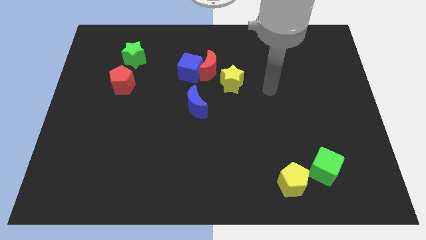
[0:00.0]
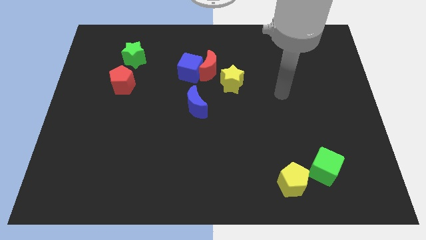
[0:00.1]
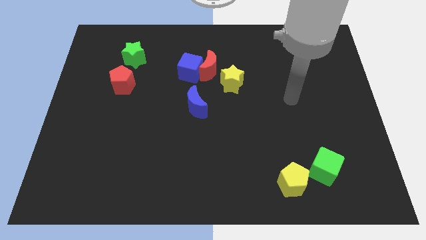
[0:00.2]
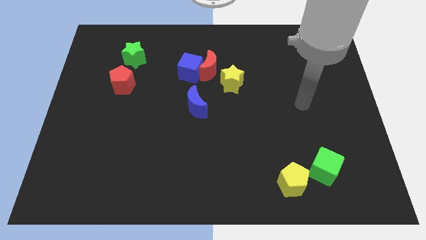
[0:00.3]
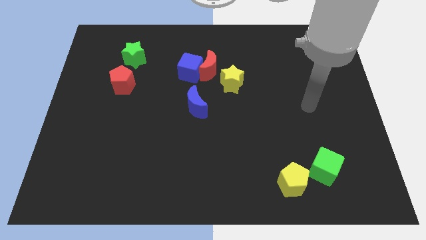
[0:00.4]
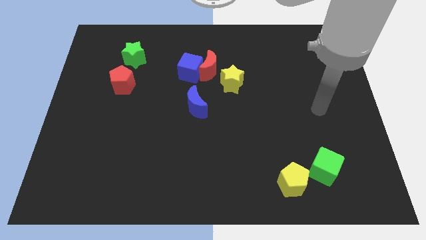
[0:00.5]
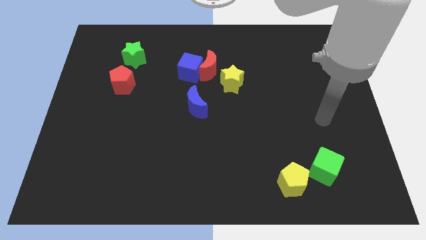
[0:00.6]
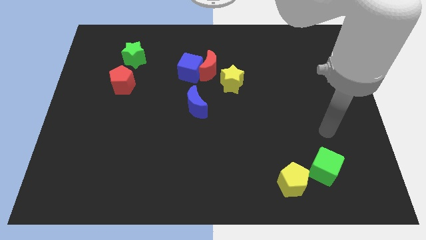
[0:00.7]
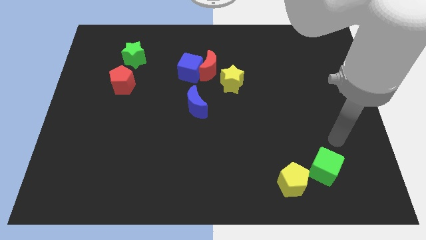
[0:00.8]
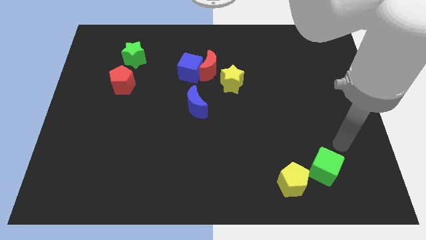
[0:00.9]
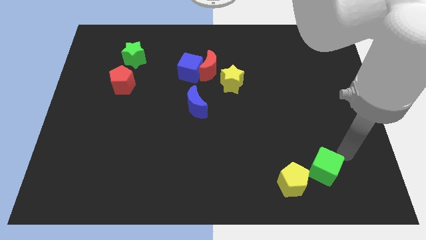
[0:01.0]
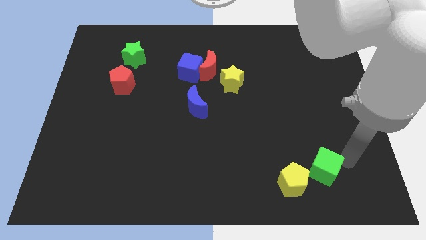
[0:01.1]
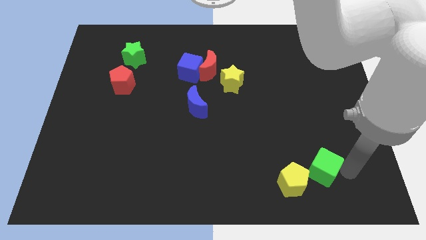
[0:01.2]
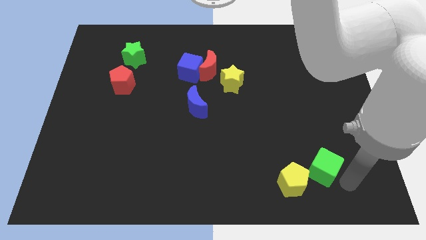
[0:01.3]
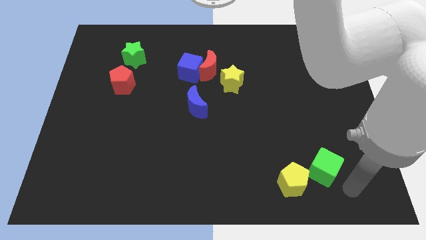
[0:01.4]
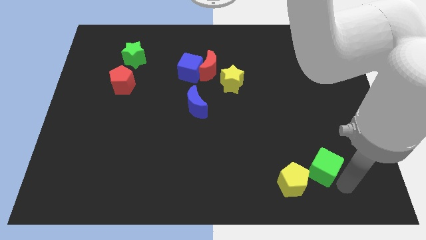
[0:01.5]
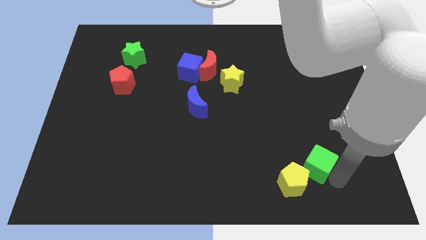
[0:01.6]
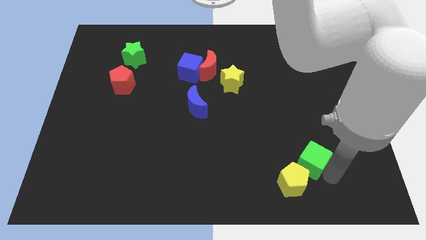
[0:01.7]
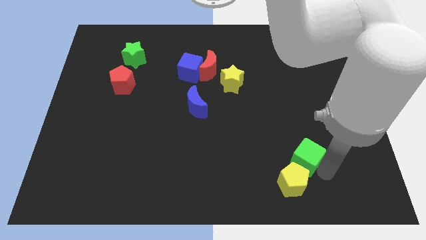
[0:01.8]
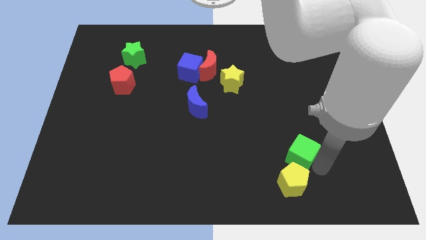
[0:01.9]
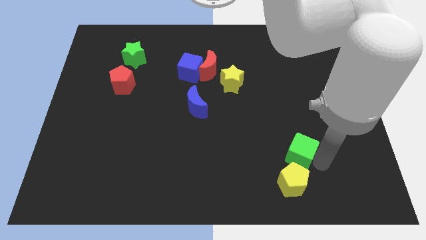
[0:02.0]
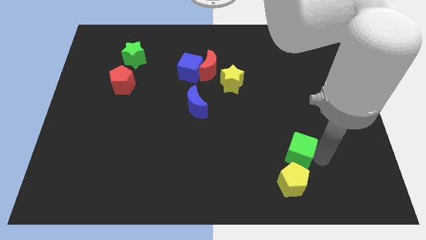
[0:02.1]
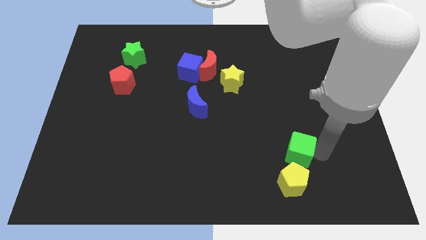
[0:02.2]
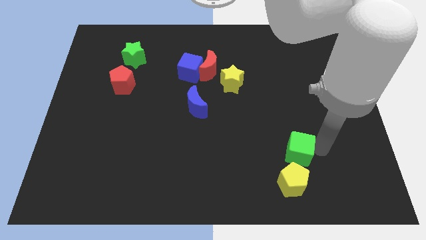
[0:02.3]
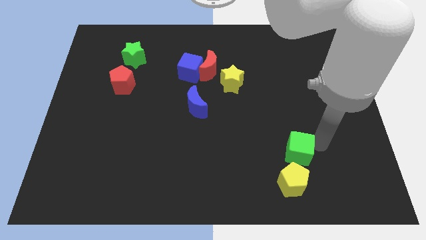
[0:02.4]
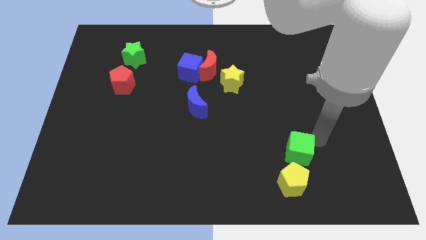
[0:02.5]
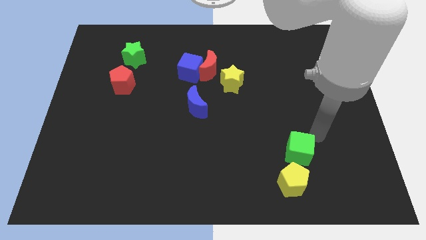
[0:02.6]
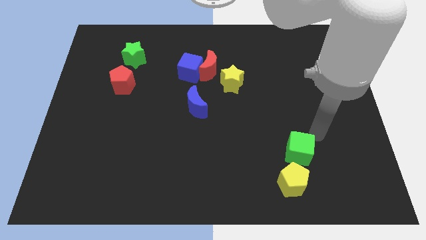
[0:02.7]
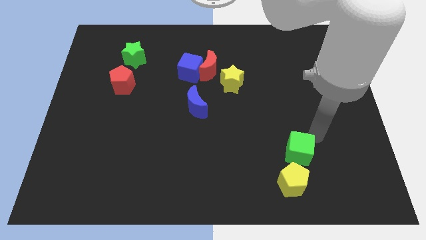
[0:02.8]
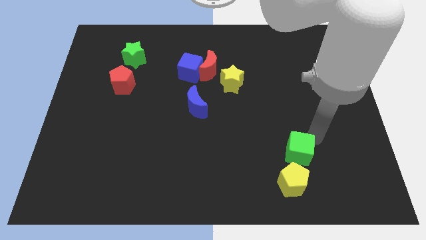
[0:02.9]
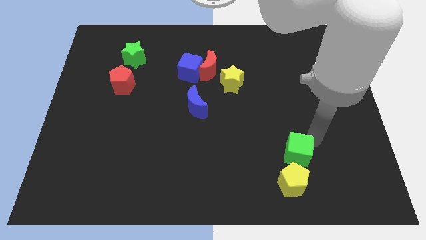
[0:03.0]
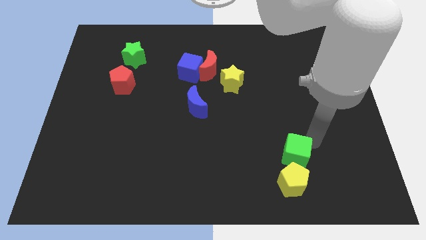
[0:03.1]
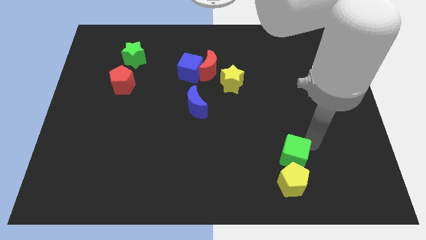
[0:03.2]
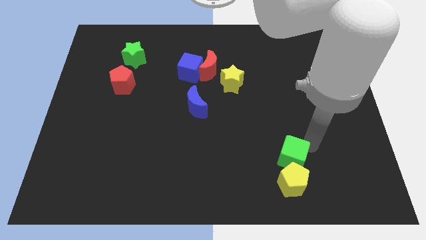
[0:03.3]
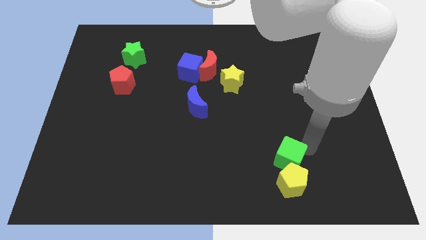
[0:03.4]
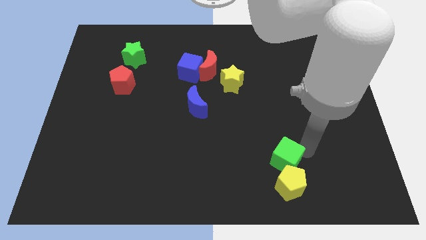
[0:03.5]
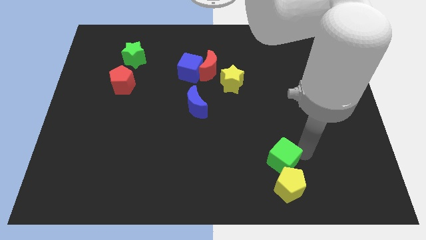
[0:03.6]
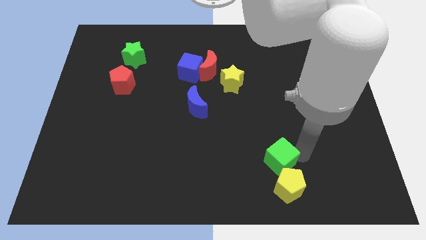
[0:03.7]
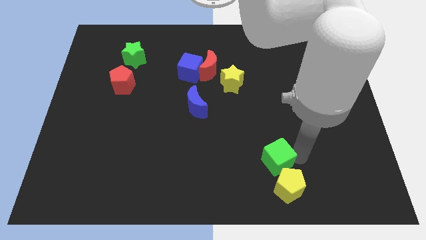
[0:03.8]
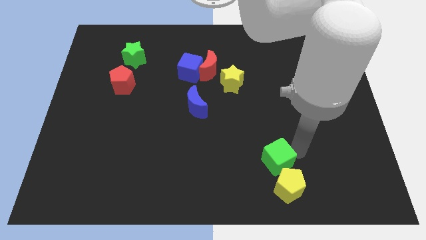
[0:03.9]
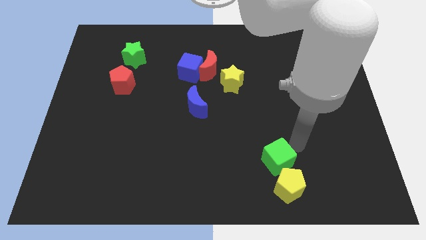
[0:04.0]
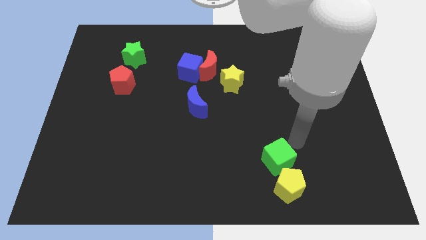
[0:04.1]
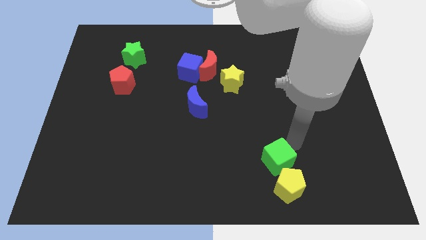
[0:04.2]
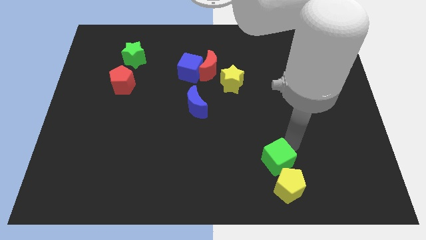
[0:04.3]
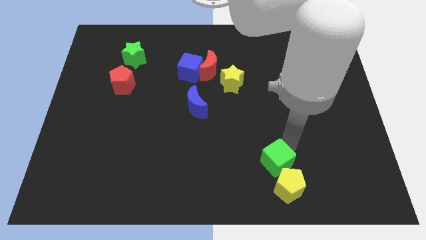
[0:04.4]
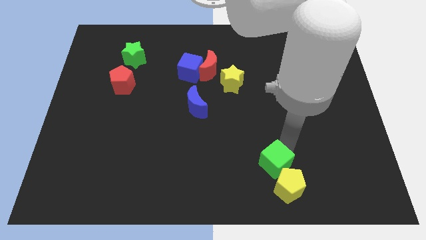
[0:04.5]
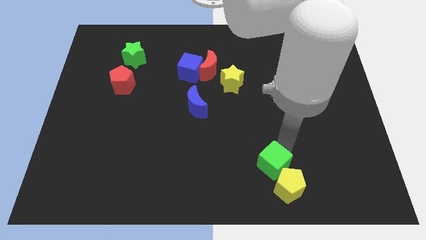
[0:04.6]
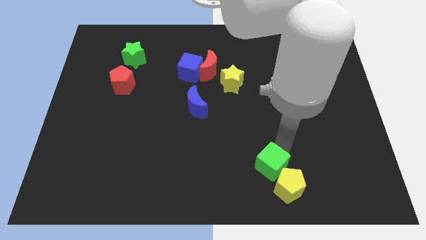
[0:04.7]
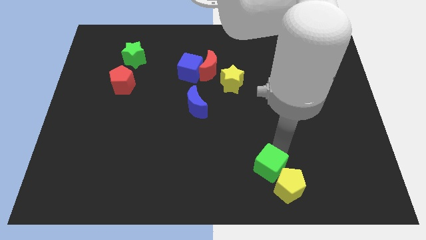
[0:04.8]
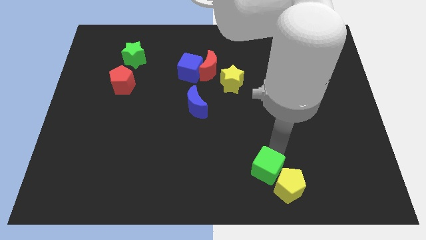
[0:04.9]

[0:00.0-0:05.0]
push the green cube to the left side of the yellow pentagon

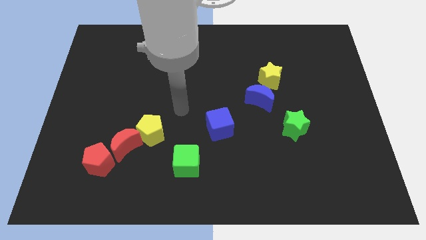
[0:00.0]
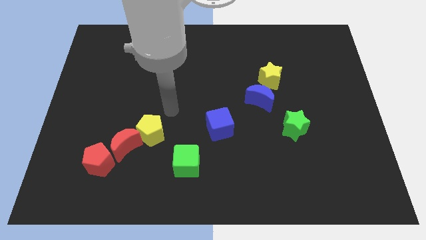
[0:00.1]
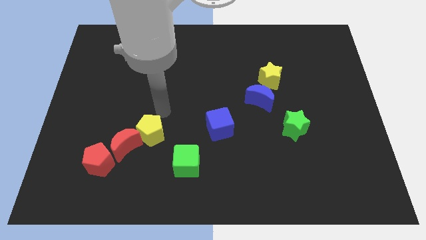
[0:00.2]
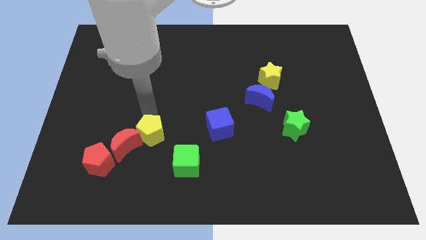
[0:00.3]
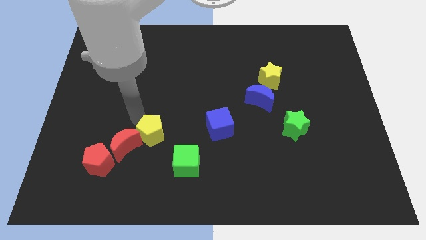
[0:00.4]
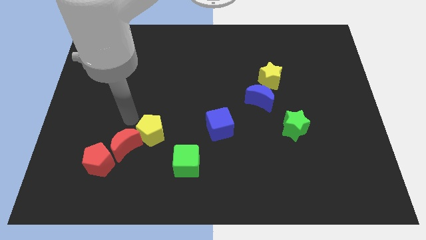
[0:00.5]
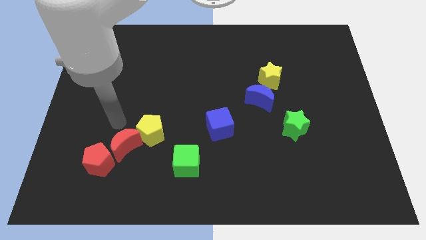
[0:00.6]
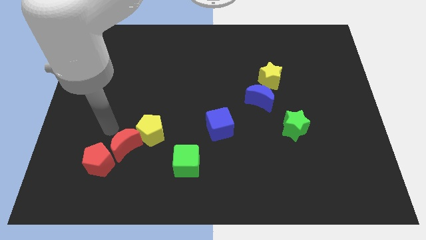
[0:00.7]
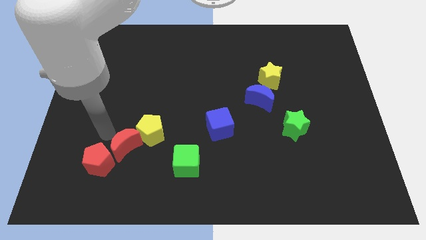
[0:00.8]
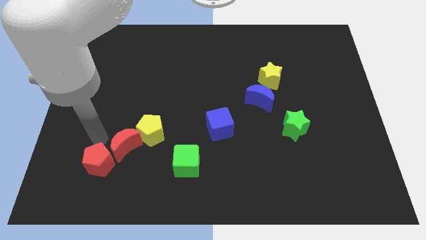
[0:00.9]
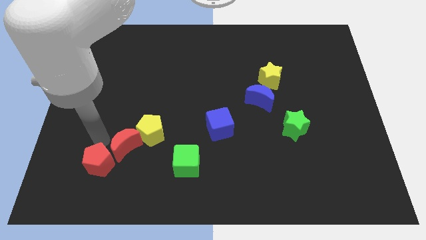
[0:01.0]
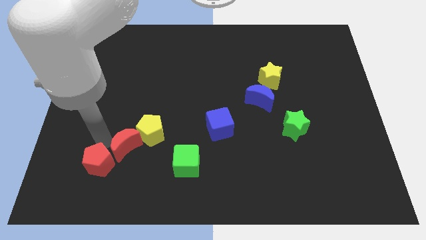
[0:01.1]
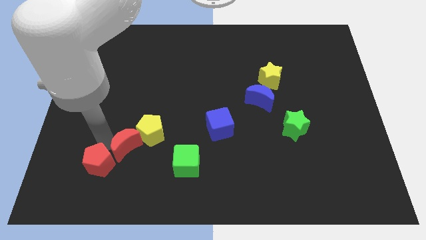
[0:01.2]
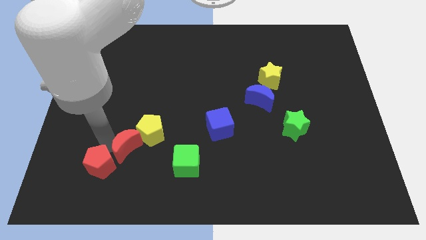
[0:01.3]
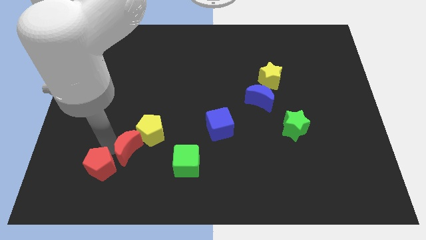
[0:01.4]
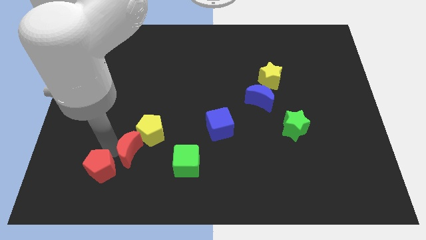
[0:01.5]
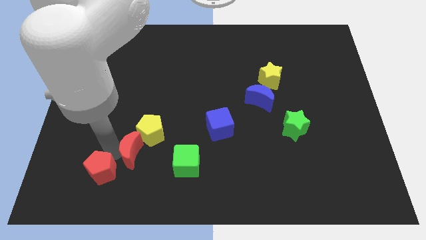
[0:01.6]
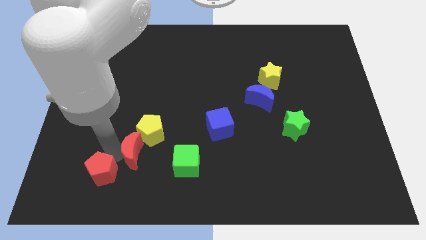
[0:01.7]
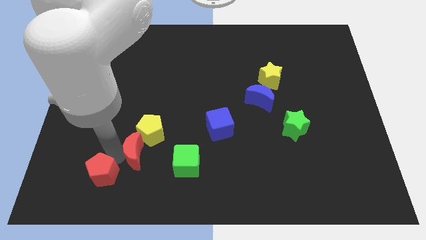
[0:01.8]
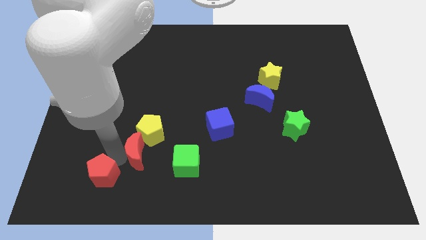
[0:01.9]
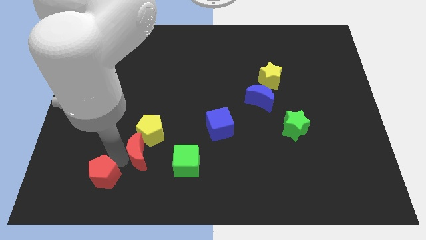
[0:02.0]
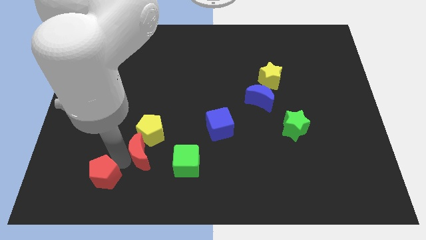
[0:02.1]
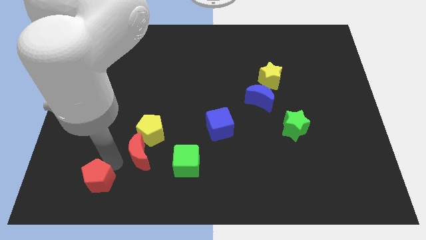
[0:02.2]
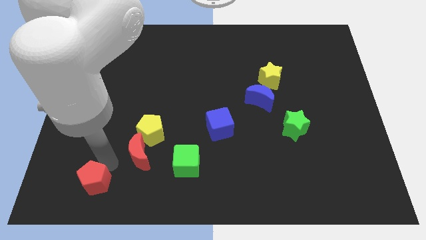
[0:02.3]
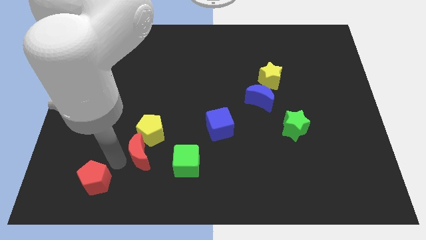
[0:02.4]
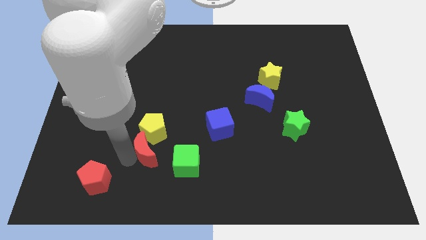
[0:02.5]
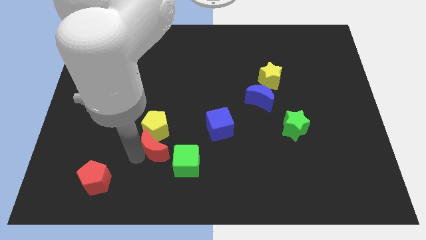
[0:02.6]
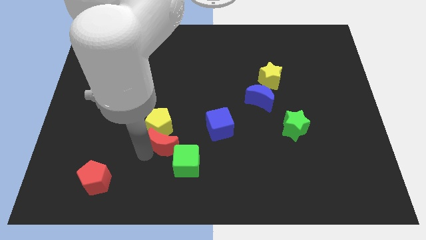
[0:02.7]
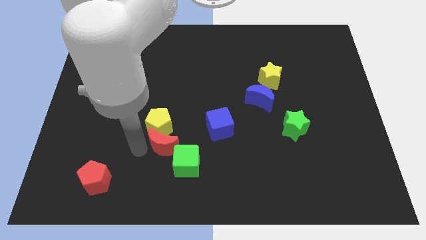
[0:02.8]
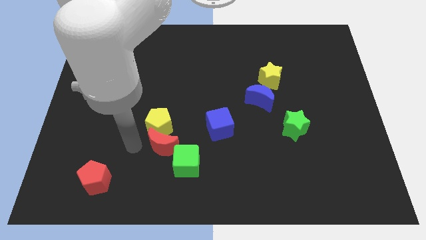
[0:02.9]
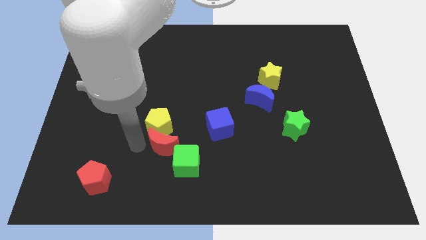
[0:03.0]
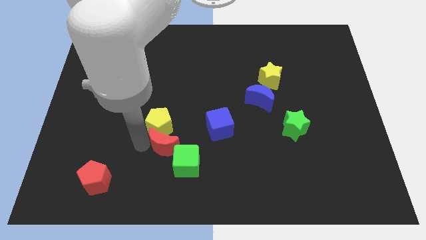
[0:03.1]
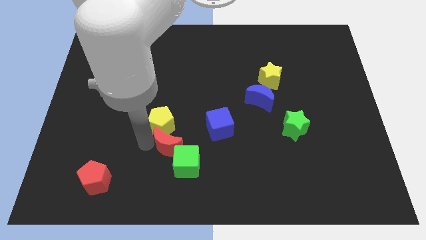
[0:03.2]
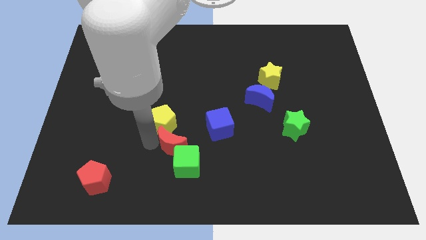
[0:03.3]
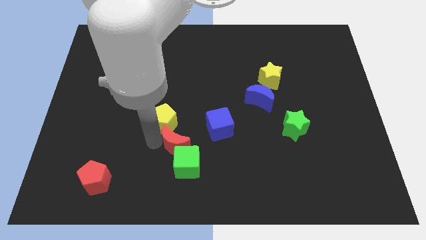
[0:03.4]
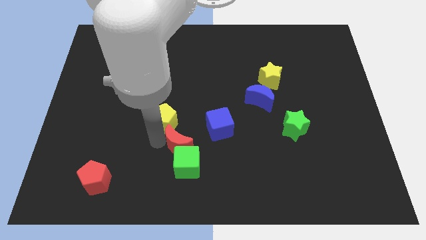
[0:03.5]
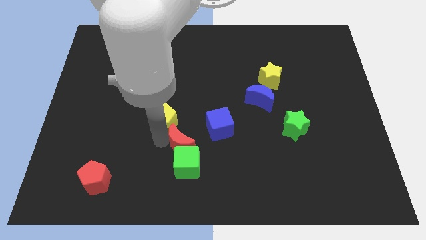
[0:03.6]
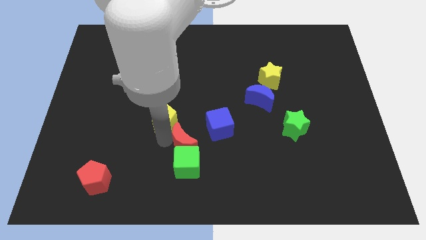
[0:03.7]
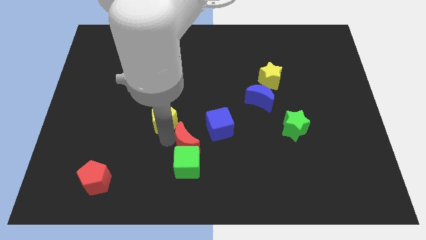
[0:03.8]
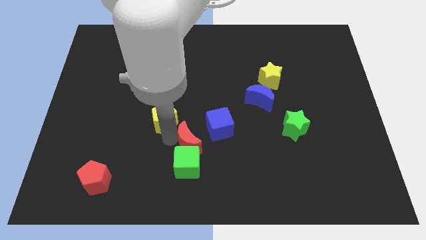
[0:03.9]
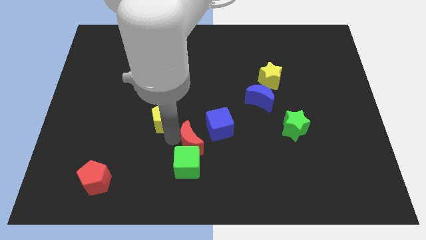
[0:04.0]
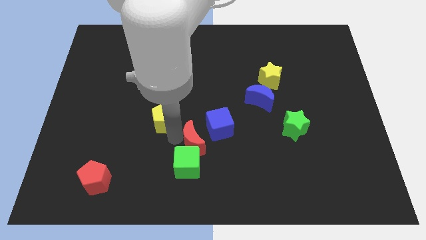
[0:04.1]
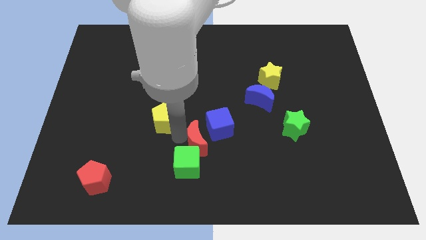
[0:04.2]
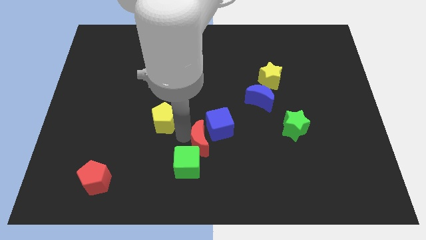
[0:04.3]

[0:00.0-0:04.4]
push the red moon to the bottom of the blue cube
